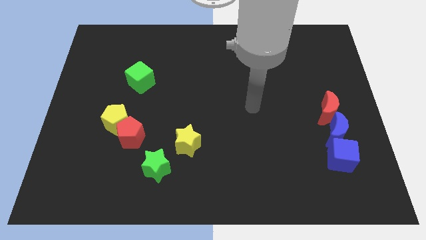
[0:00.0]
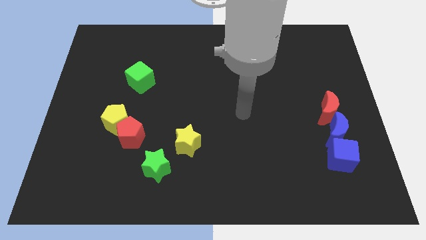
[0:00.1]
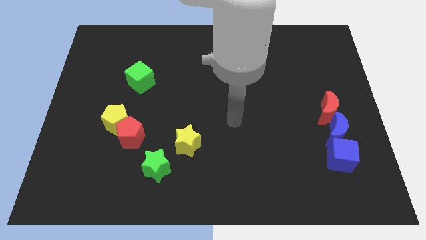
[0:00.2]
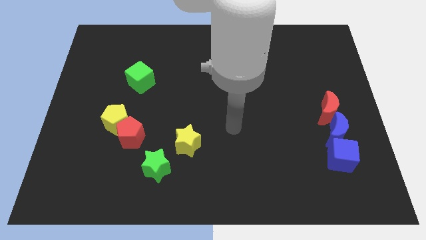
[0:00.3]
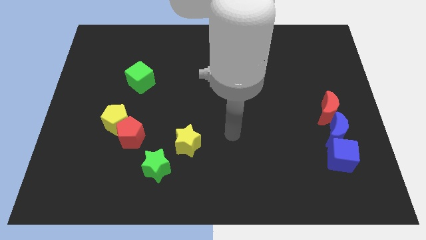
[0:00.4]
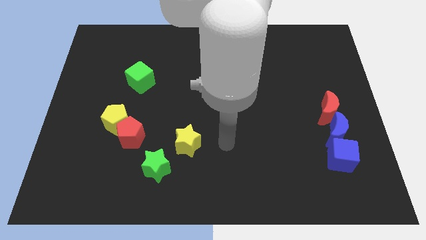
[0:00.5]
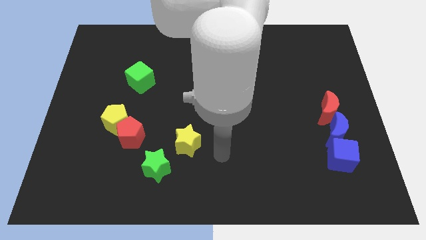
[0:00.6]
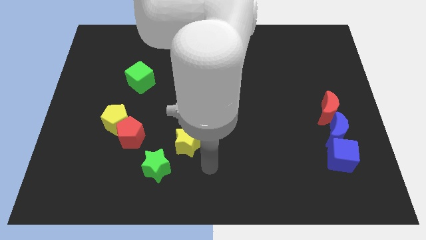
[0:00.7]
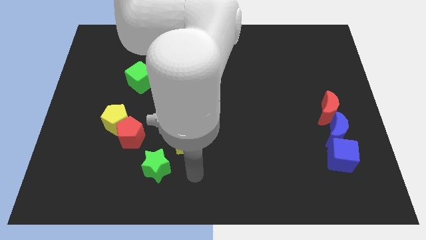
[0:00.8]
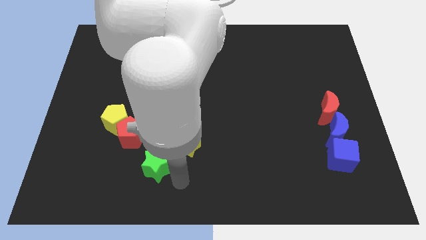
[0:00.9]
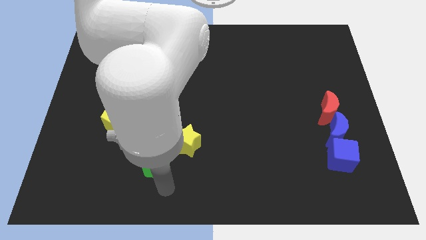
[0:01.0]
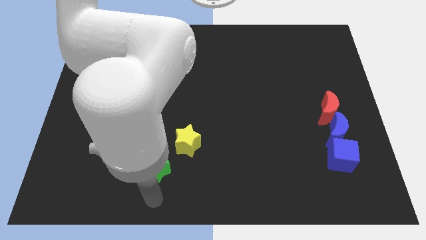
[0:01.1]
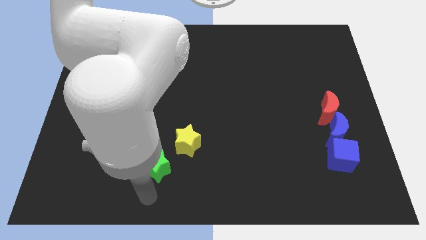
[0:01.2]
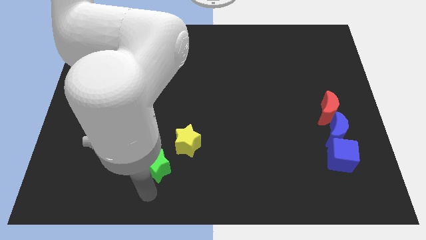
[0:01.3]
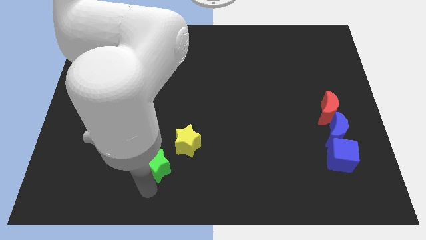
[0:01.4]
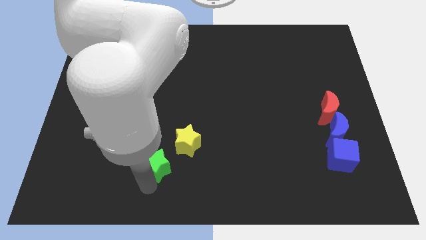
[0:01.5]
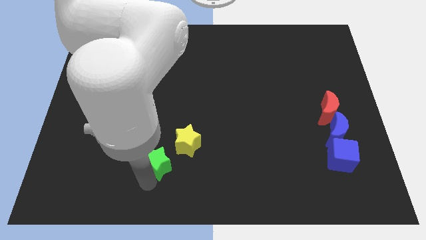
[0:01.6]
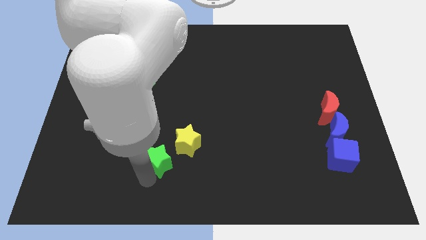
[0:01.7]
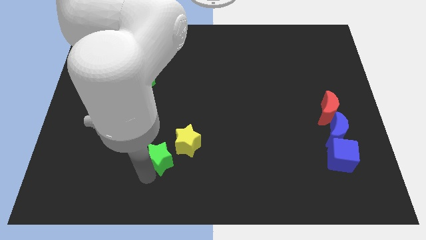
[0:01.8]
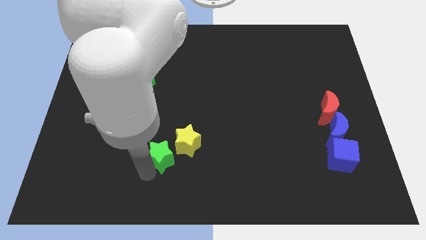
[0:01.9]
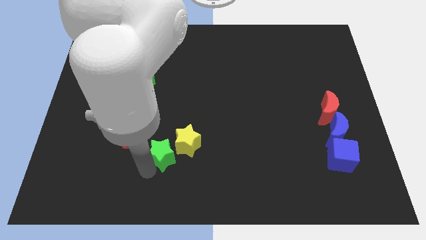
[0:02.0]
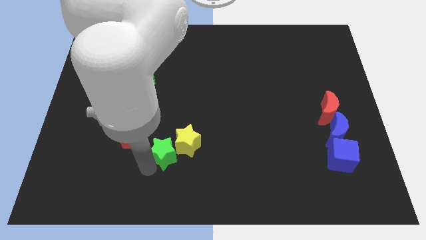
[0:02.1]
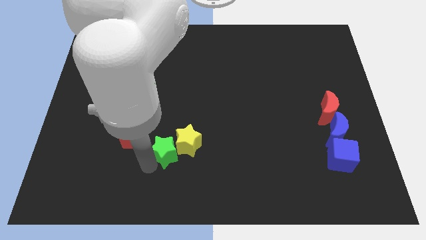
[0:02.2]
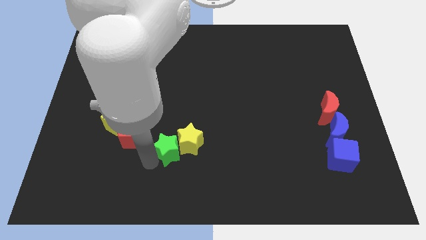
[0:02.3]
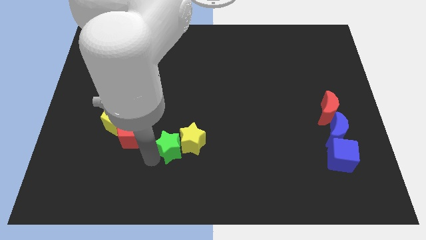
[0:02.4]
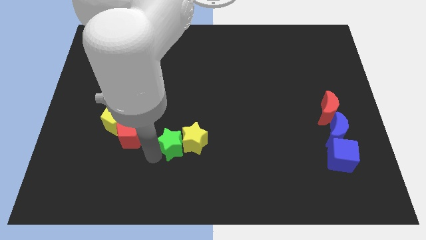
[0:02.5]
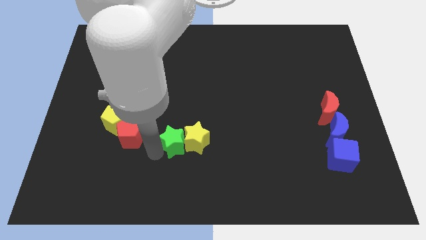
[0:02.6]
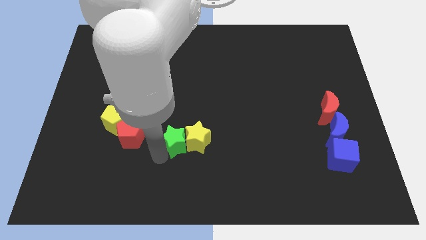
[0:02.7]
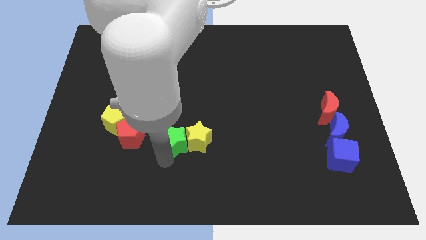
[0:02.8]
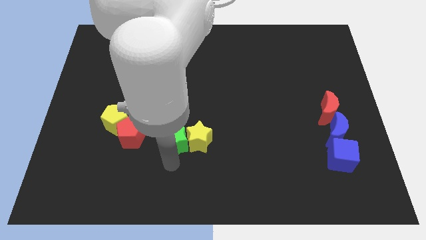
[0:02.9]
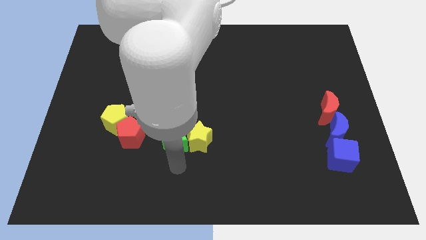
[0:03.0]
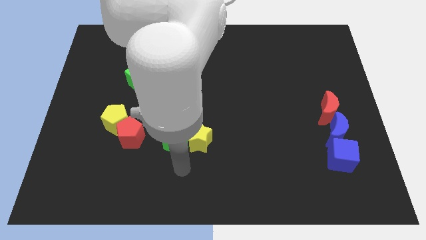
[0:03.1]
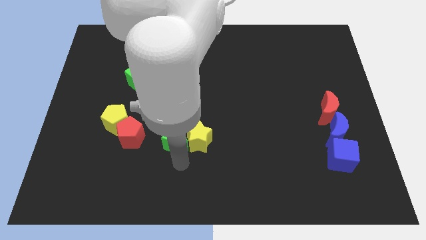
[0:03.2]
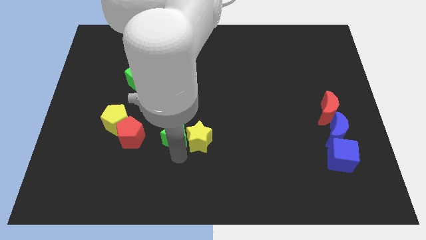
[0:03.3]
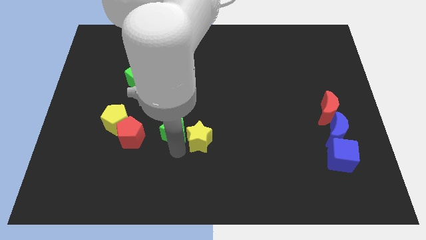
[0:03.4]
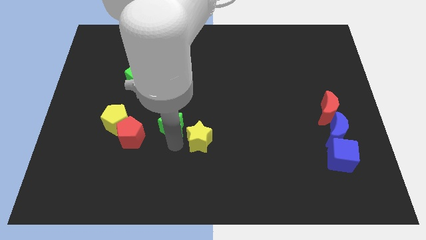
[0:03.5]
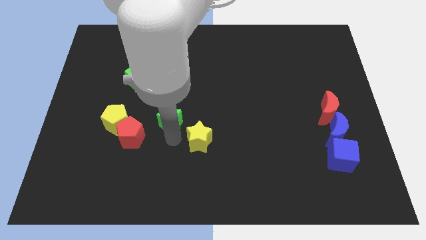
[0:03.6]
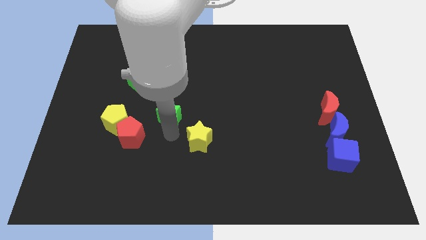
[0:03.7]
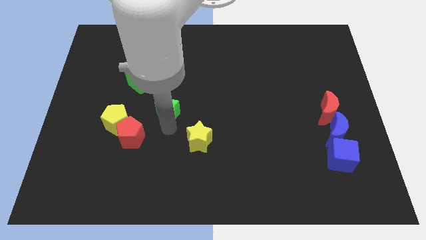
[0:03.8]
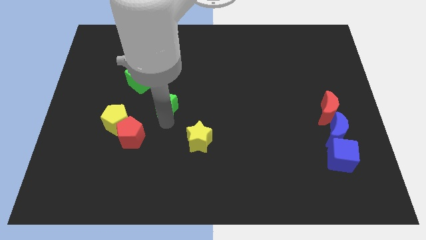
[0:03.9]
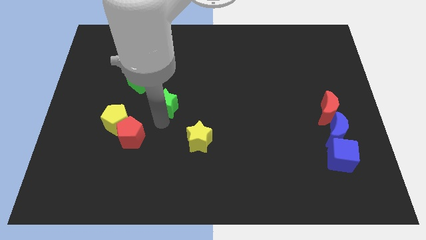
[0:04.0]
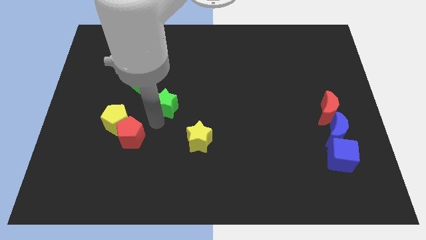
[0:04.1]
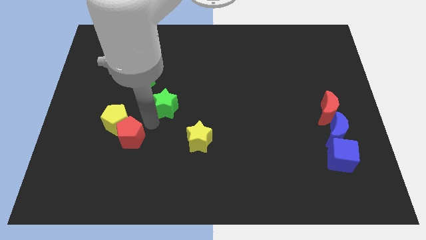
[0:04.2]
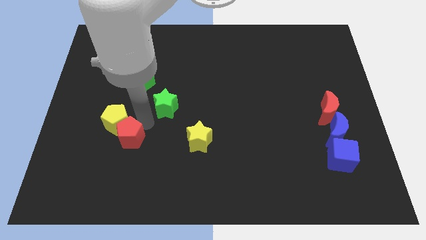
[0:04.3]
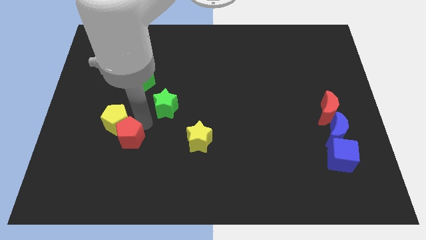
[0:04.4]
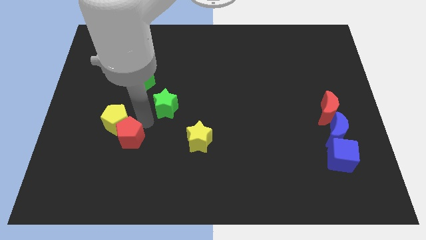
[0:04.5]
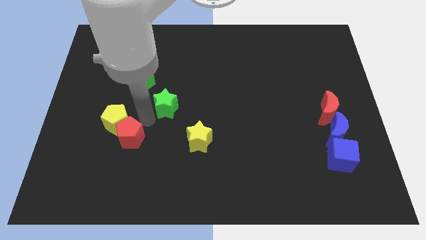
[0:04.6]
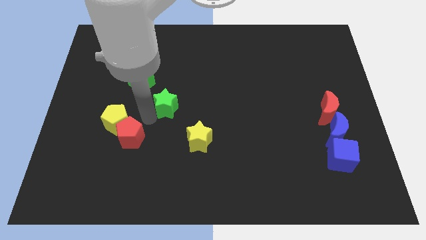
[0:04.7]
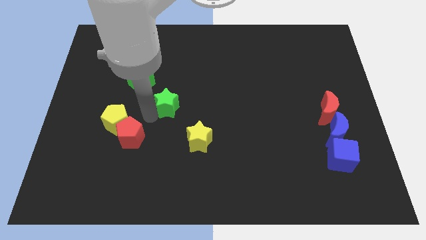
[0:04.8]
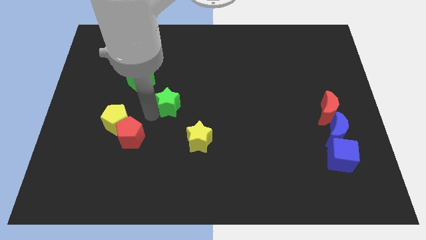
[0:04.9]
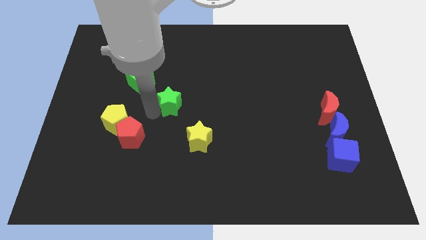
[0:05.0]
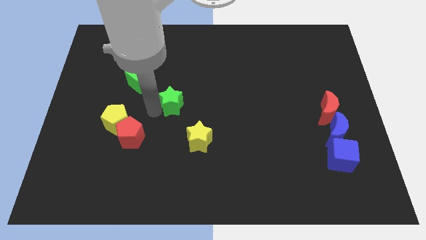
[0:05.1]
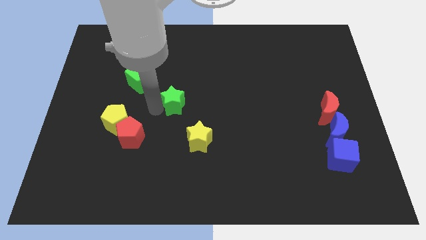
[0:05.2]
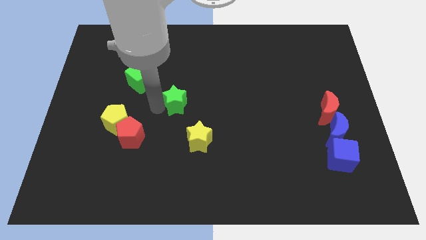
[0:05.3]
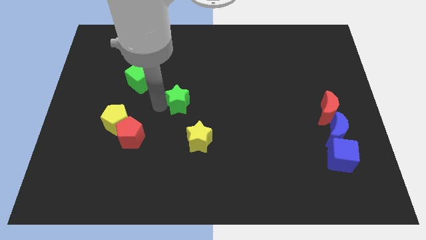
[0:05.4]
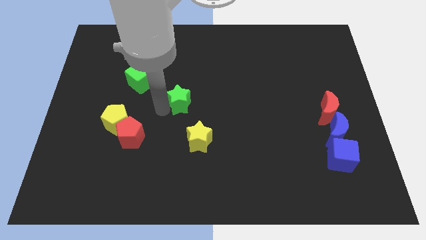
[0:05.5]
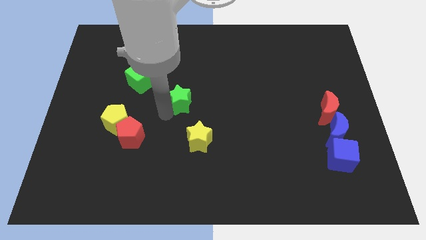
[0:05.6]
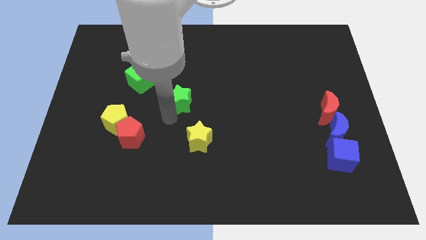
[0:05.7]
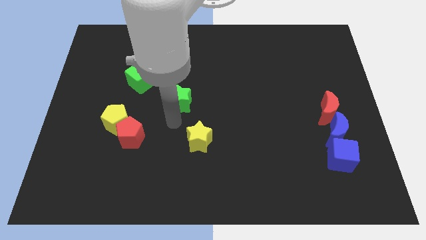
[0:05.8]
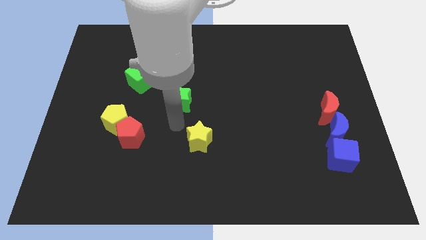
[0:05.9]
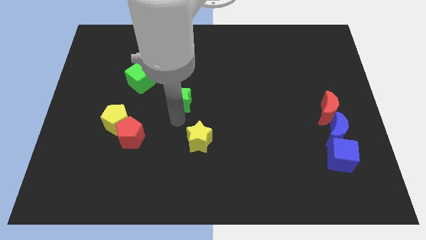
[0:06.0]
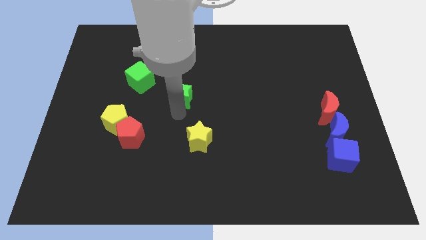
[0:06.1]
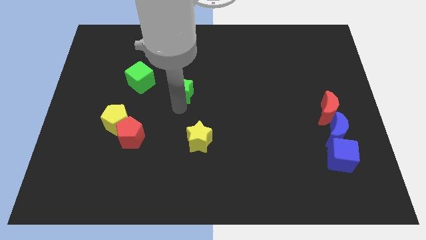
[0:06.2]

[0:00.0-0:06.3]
move the green star to the right of the green cube

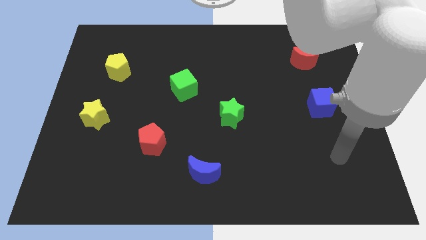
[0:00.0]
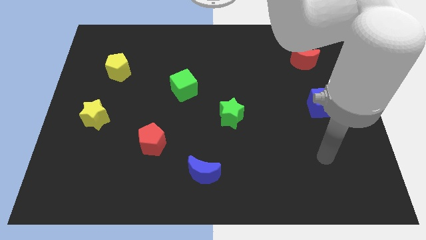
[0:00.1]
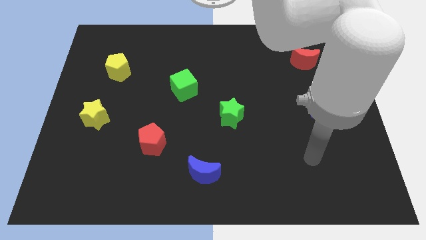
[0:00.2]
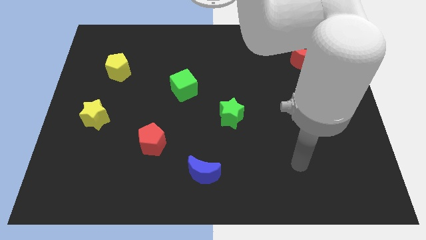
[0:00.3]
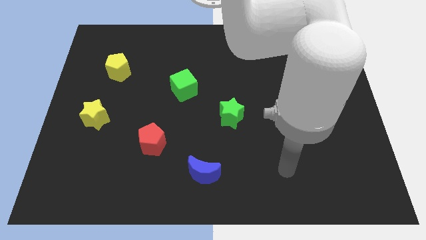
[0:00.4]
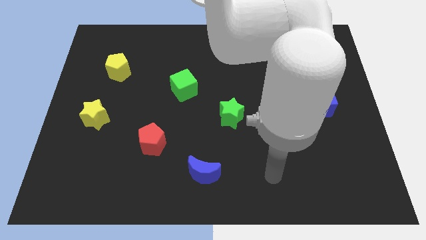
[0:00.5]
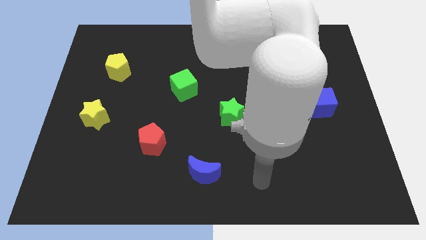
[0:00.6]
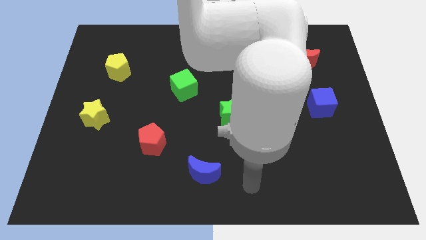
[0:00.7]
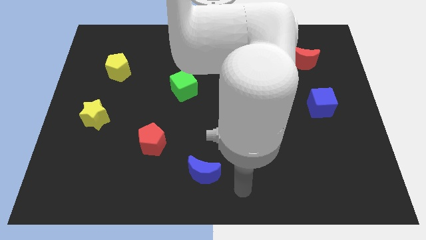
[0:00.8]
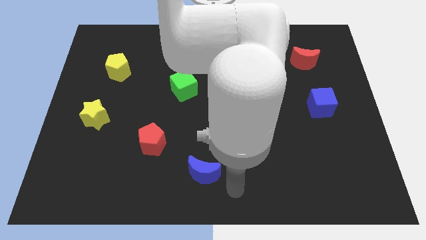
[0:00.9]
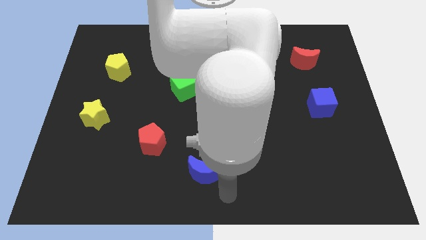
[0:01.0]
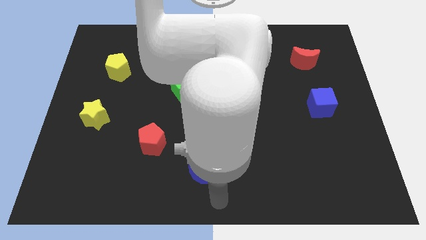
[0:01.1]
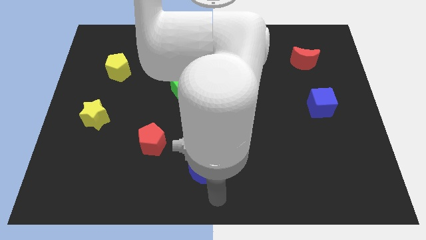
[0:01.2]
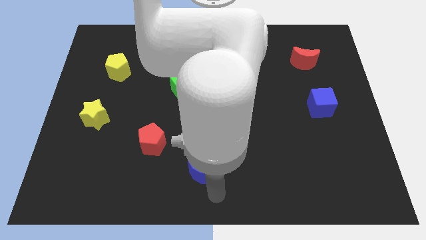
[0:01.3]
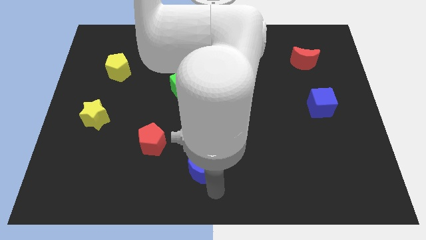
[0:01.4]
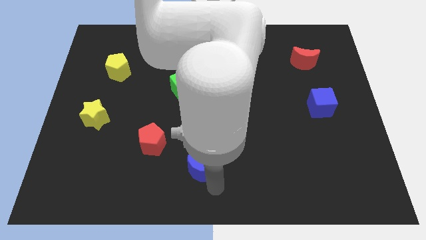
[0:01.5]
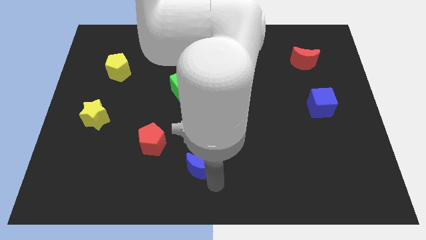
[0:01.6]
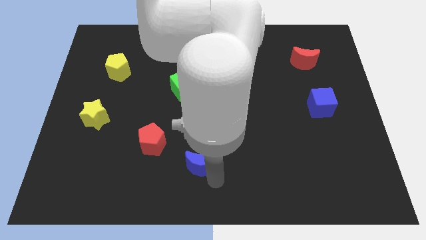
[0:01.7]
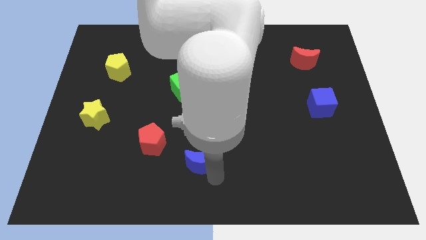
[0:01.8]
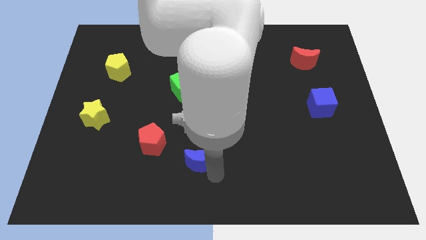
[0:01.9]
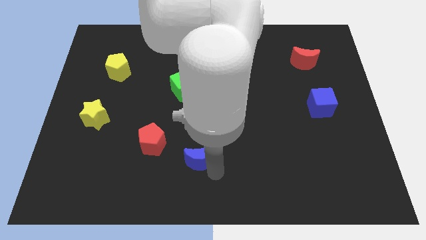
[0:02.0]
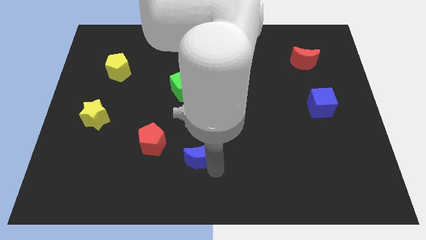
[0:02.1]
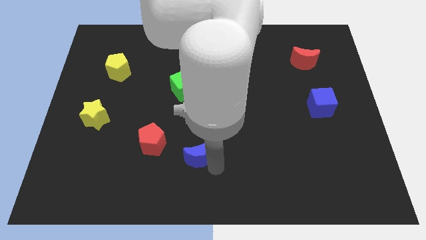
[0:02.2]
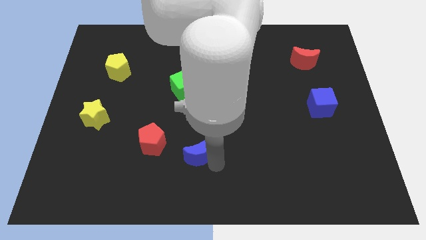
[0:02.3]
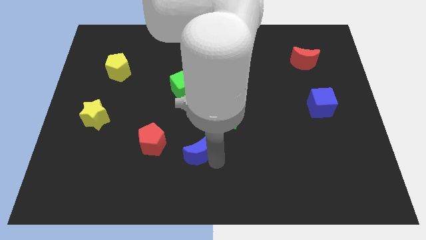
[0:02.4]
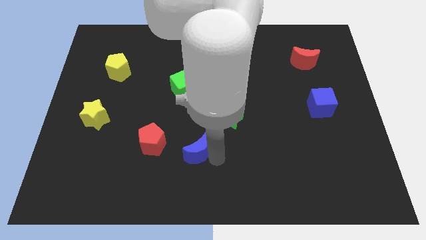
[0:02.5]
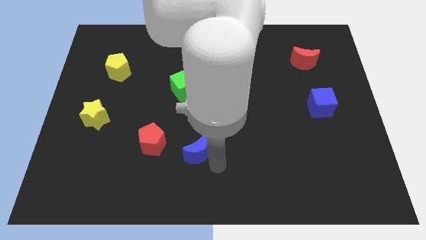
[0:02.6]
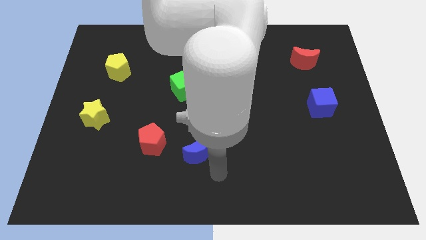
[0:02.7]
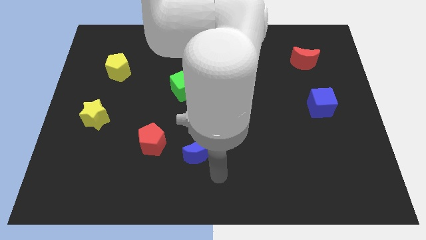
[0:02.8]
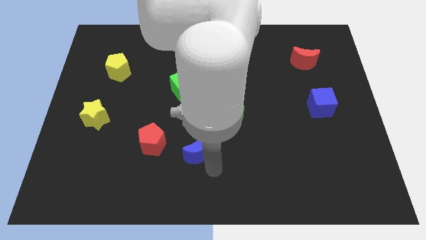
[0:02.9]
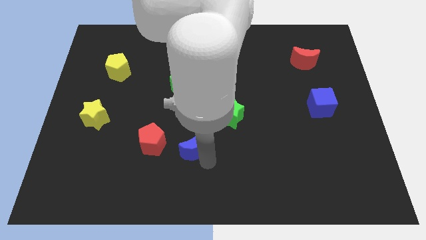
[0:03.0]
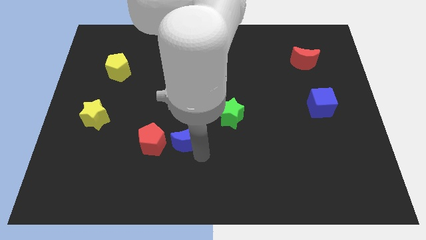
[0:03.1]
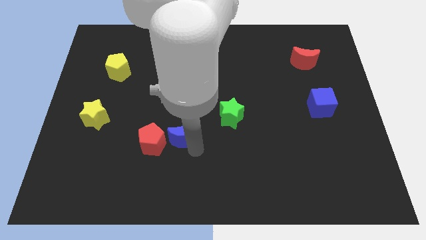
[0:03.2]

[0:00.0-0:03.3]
move the blue moon to the top right side of the red pentagon
